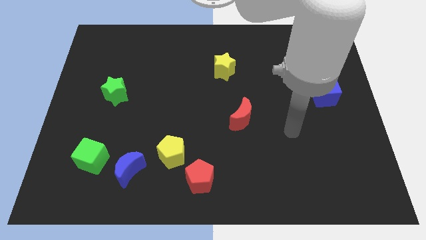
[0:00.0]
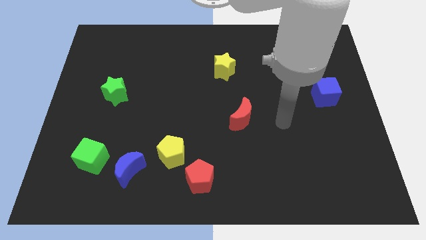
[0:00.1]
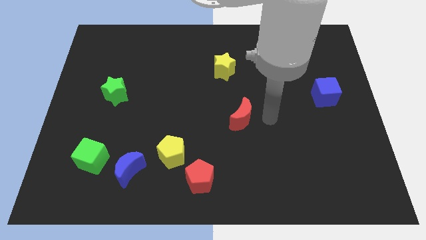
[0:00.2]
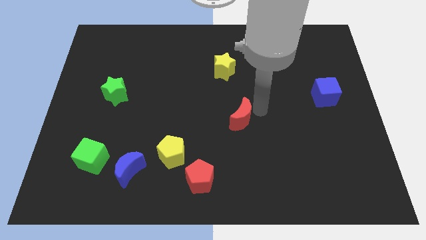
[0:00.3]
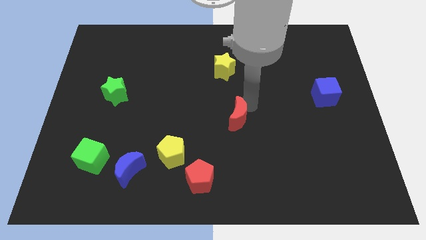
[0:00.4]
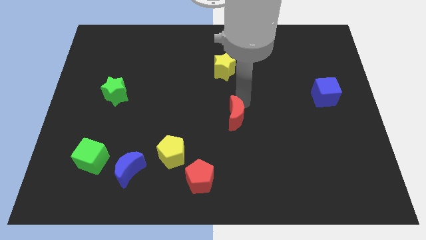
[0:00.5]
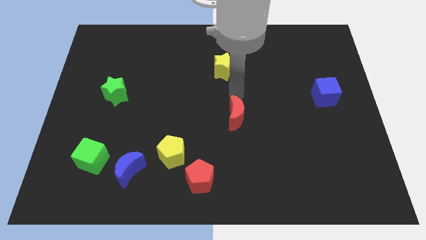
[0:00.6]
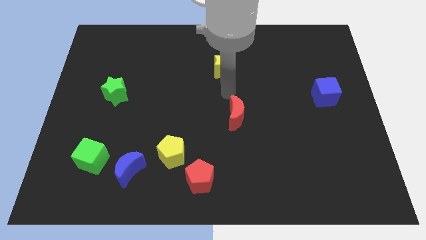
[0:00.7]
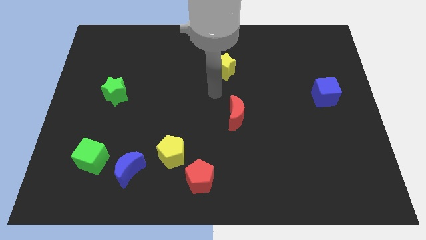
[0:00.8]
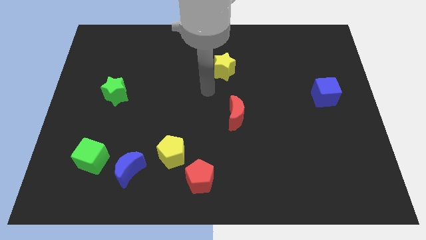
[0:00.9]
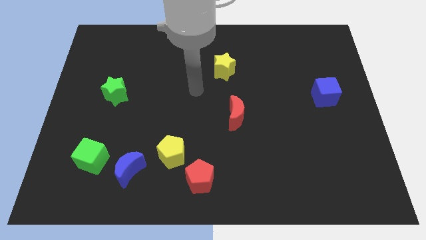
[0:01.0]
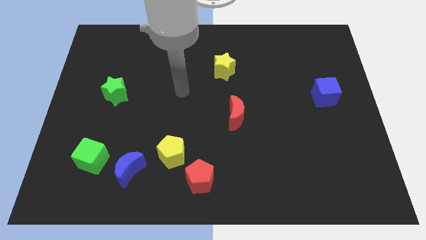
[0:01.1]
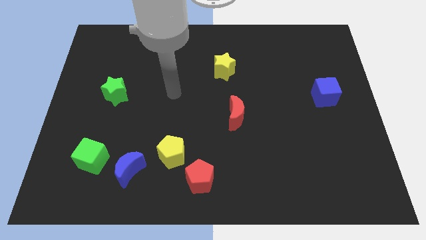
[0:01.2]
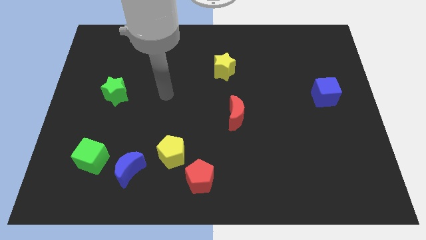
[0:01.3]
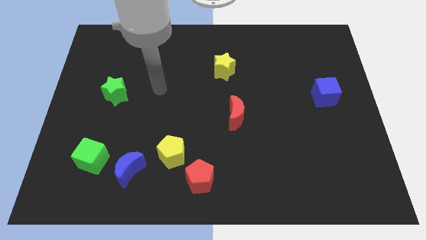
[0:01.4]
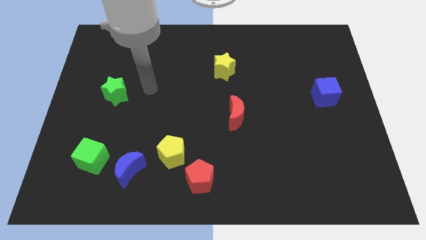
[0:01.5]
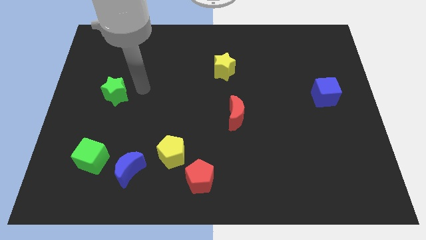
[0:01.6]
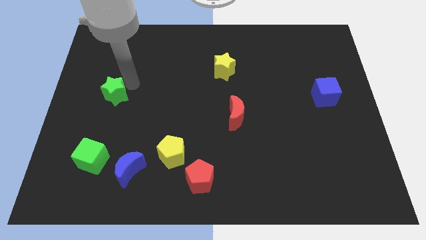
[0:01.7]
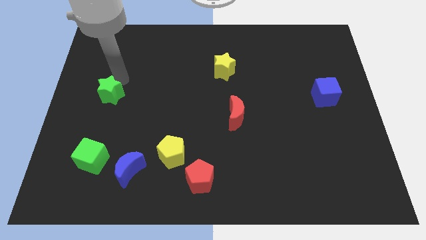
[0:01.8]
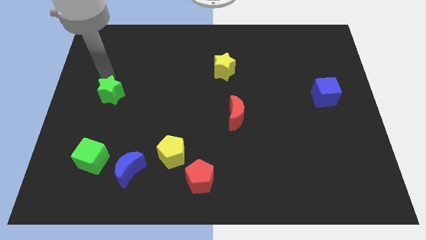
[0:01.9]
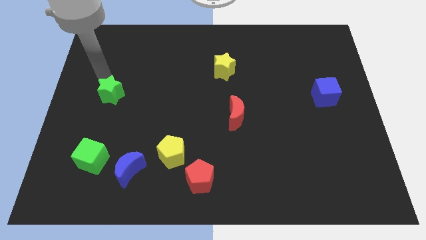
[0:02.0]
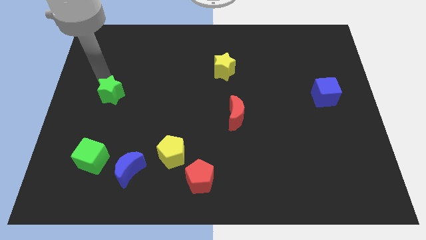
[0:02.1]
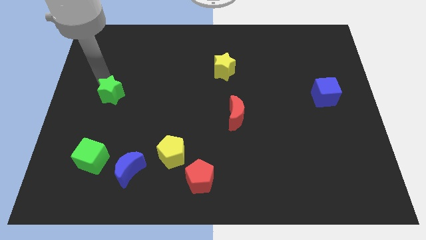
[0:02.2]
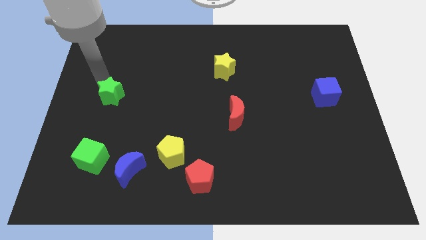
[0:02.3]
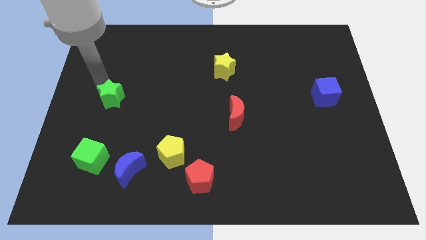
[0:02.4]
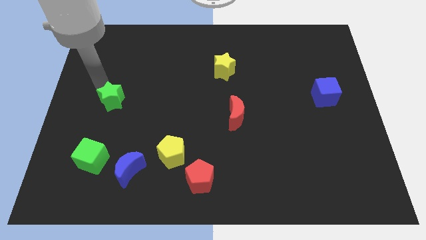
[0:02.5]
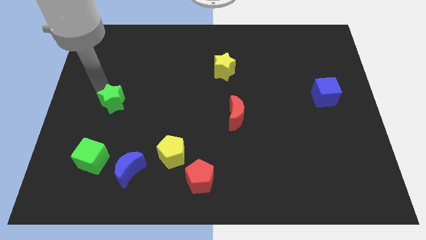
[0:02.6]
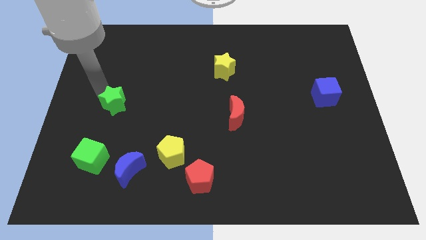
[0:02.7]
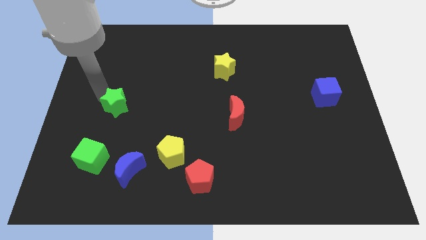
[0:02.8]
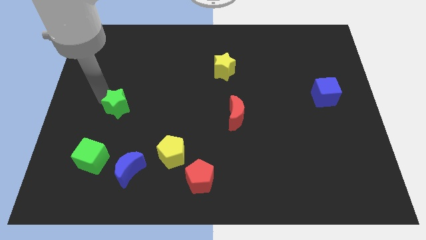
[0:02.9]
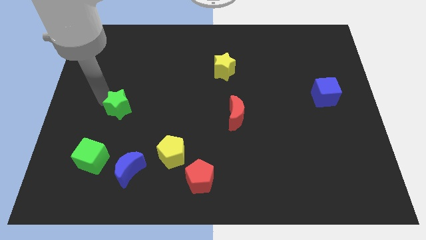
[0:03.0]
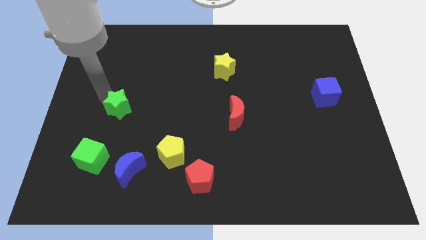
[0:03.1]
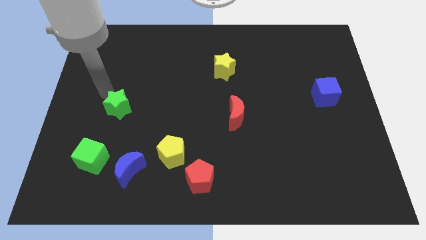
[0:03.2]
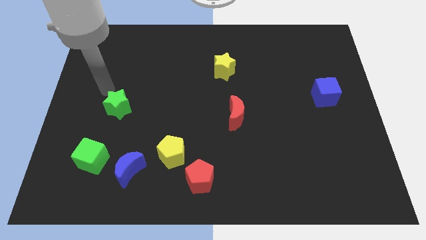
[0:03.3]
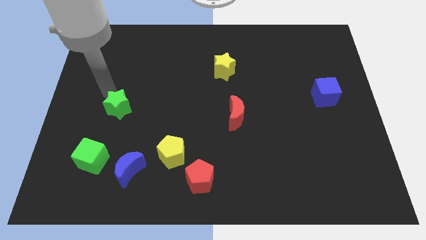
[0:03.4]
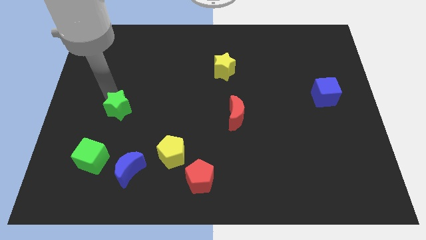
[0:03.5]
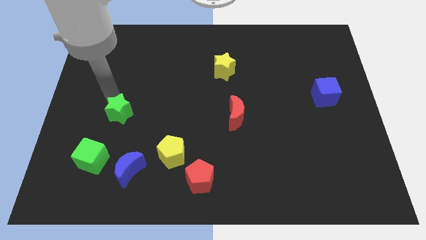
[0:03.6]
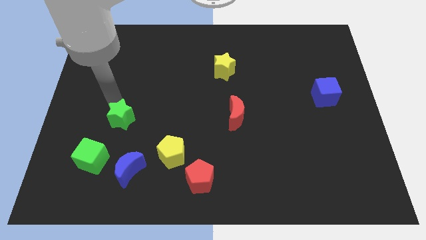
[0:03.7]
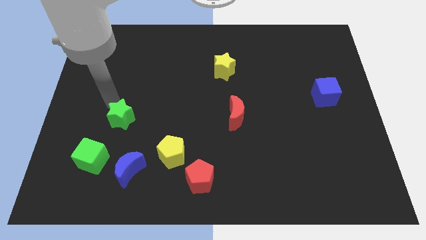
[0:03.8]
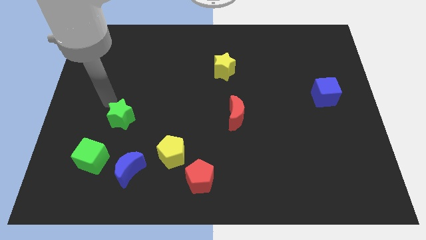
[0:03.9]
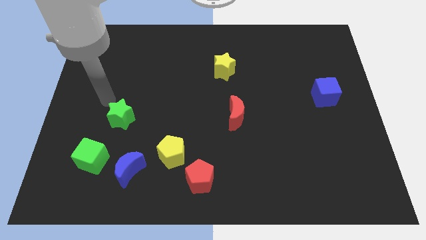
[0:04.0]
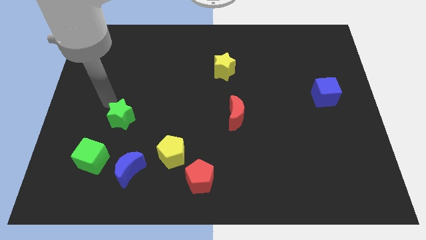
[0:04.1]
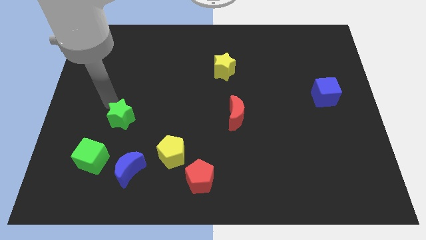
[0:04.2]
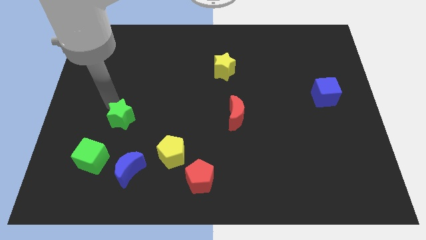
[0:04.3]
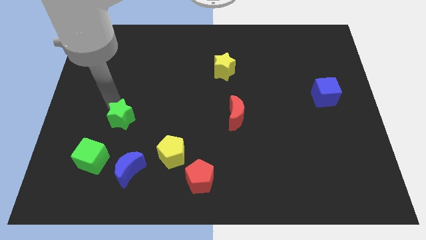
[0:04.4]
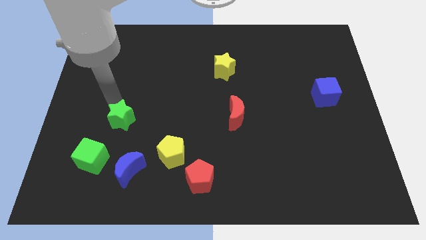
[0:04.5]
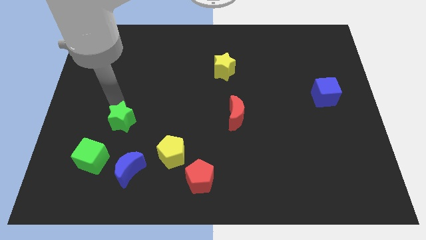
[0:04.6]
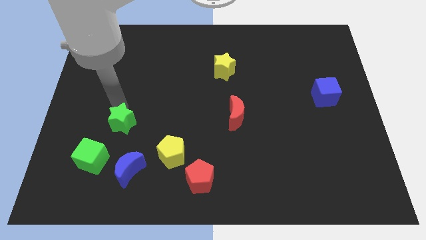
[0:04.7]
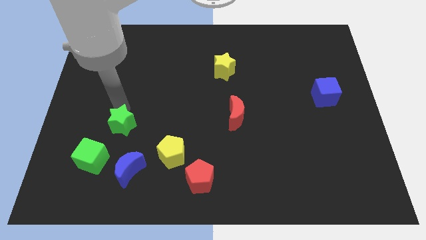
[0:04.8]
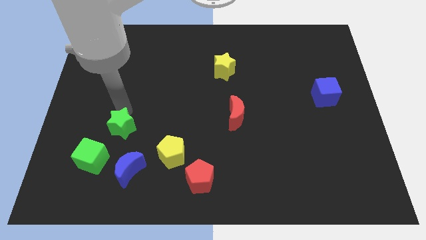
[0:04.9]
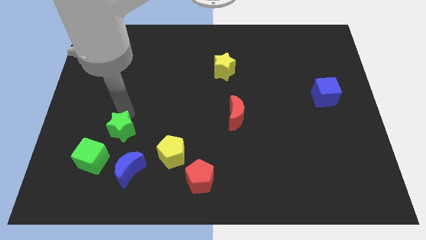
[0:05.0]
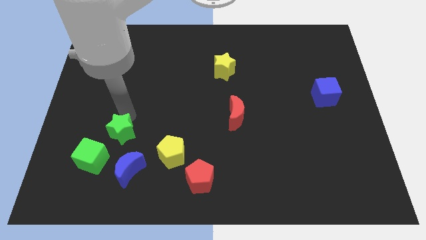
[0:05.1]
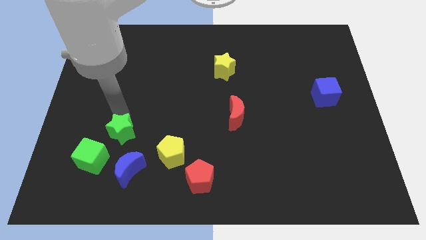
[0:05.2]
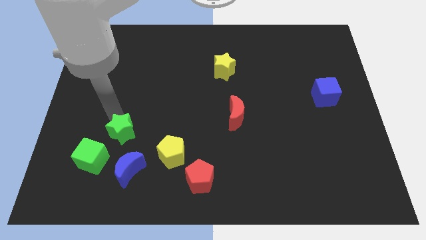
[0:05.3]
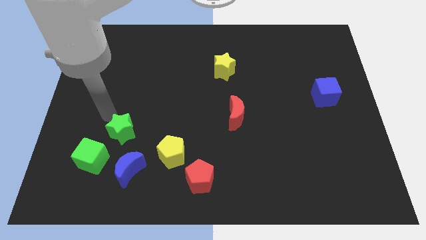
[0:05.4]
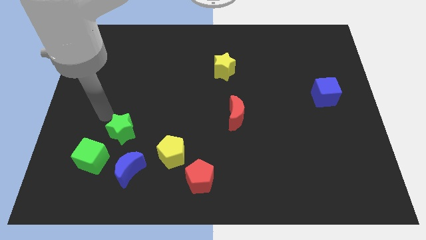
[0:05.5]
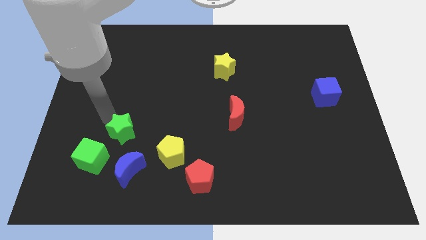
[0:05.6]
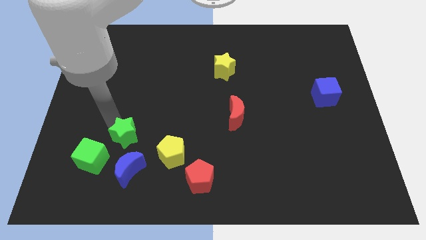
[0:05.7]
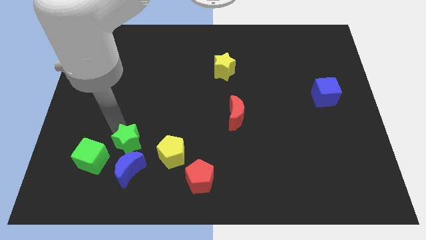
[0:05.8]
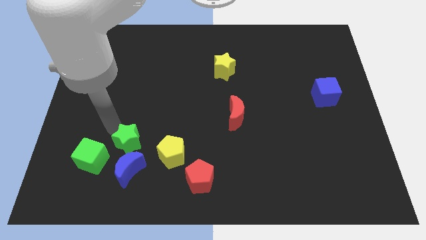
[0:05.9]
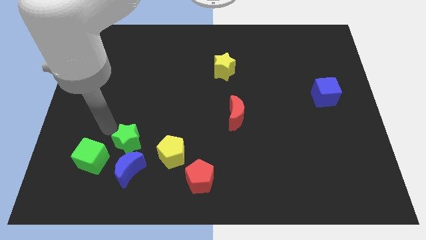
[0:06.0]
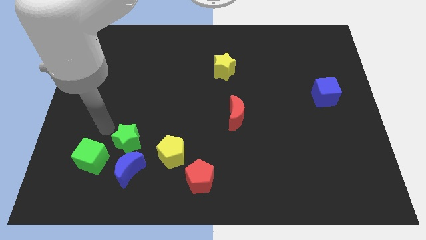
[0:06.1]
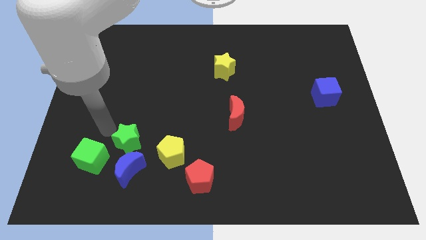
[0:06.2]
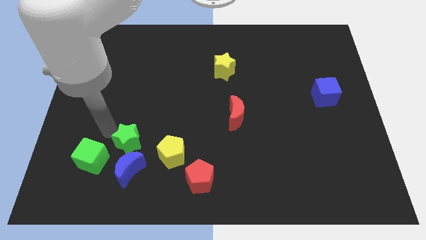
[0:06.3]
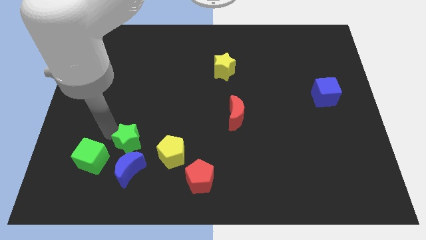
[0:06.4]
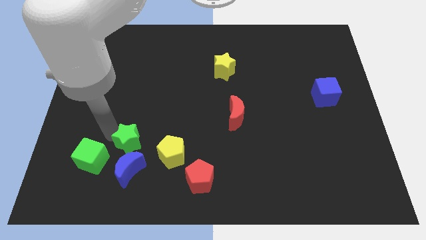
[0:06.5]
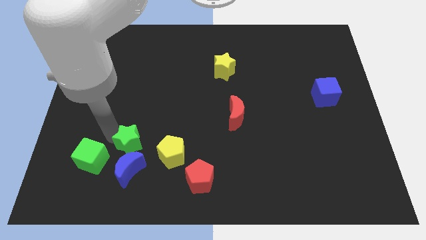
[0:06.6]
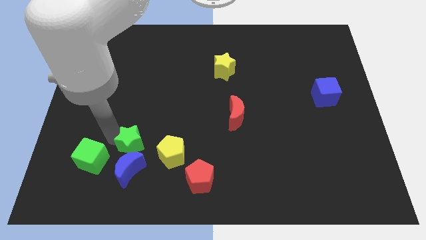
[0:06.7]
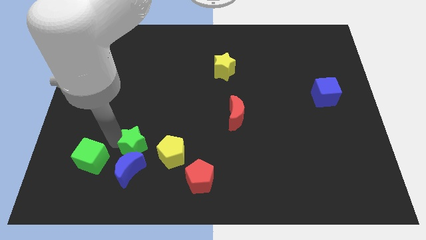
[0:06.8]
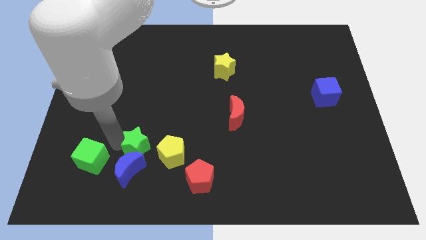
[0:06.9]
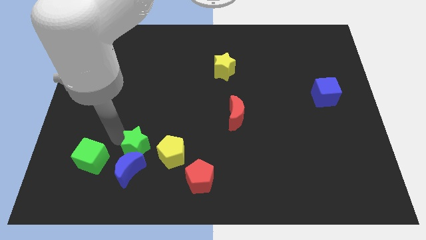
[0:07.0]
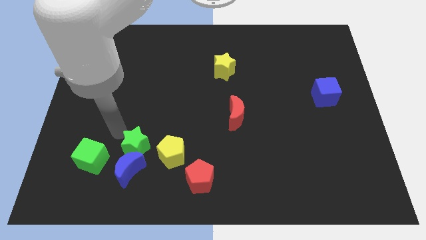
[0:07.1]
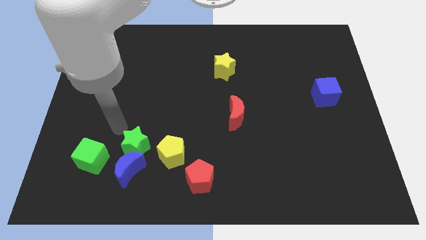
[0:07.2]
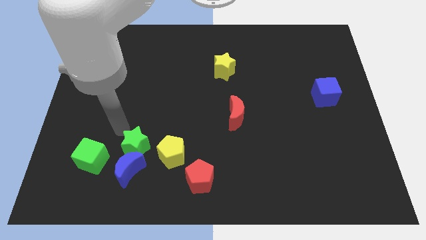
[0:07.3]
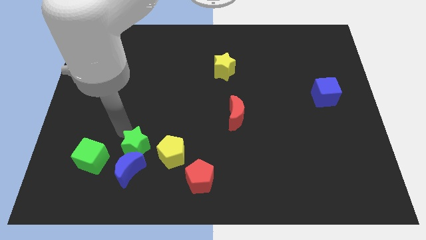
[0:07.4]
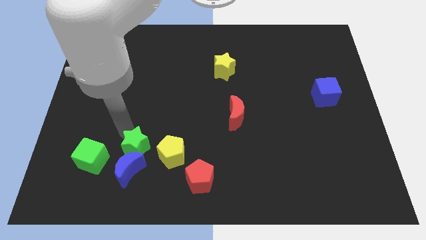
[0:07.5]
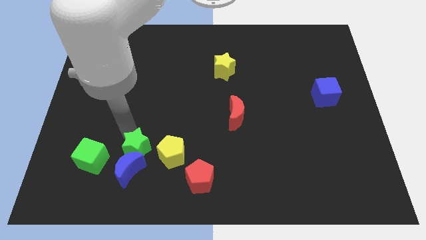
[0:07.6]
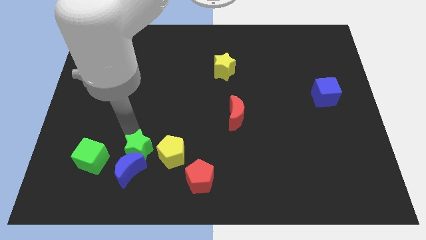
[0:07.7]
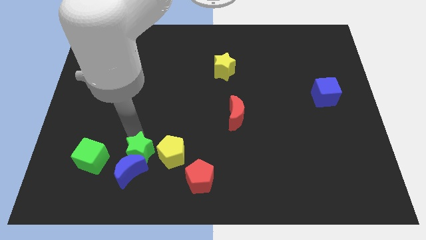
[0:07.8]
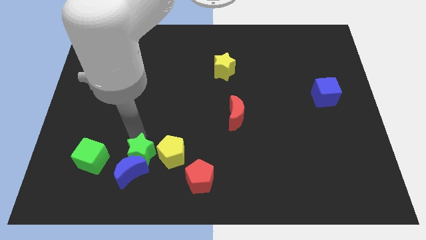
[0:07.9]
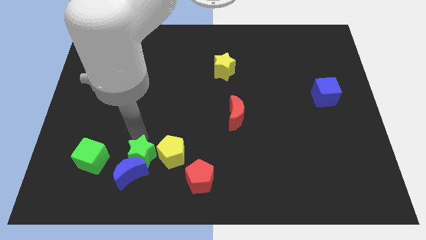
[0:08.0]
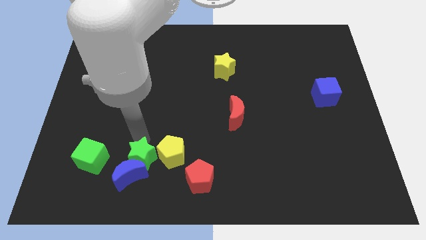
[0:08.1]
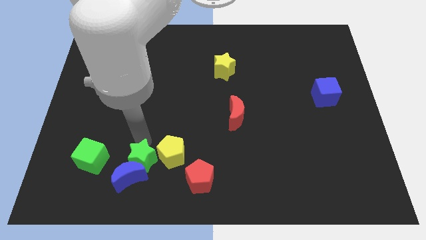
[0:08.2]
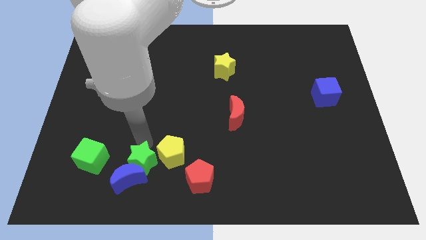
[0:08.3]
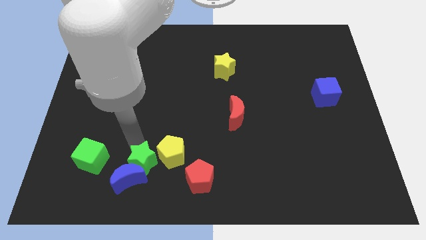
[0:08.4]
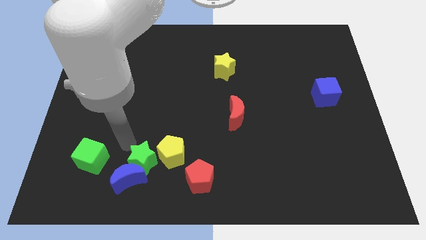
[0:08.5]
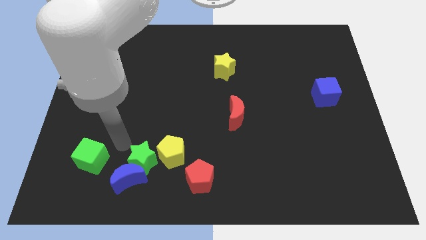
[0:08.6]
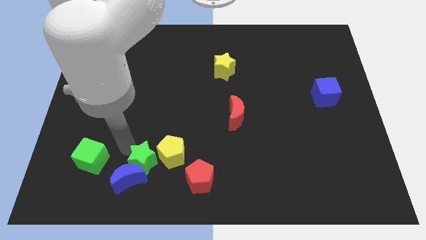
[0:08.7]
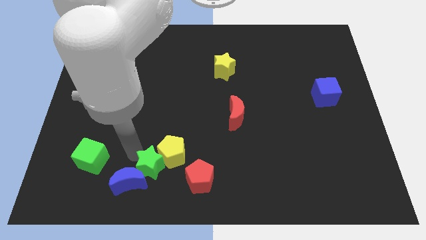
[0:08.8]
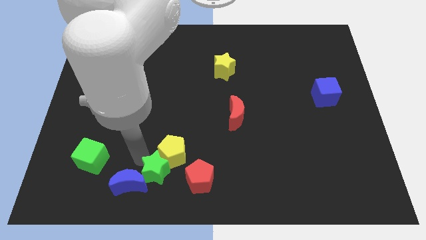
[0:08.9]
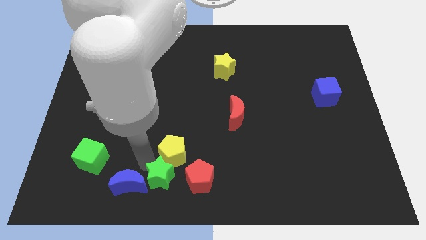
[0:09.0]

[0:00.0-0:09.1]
slide the green star to the bottom side
